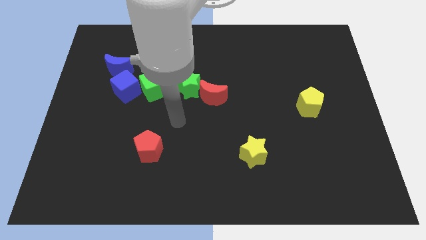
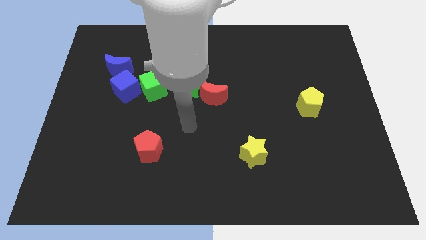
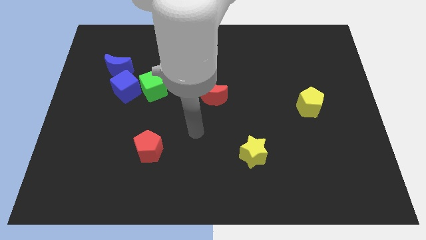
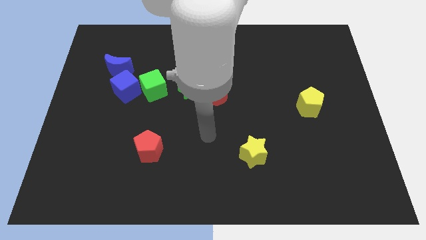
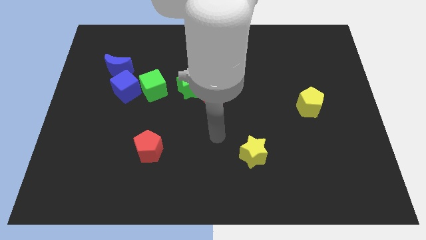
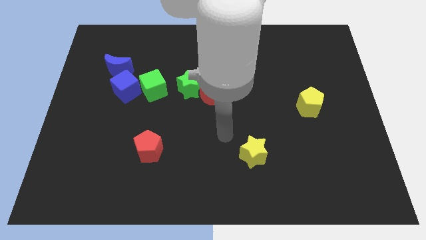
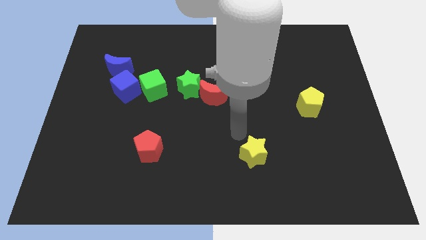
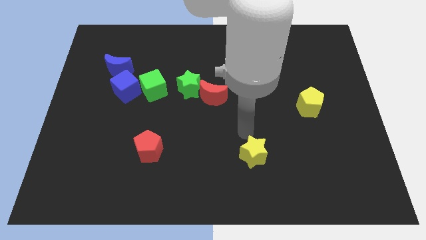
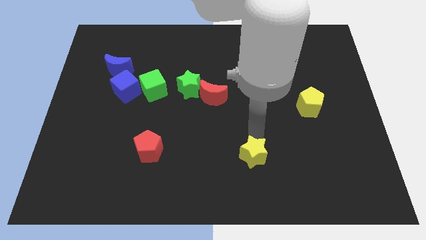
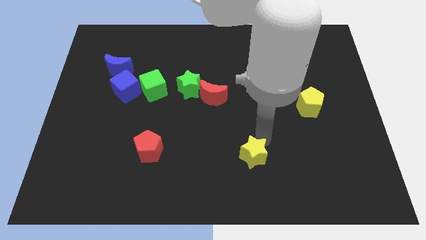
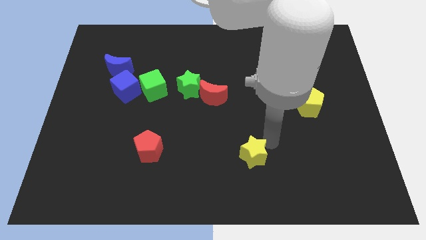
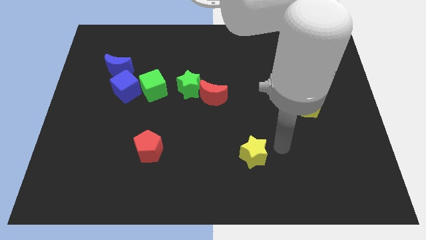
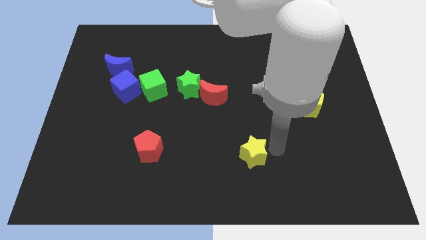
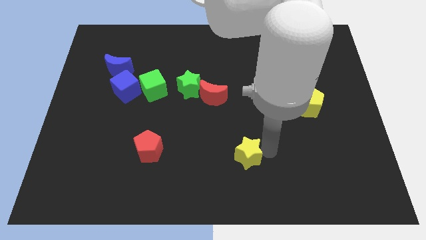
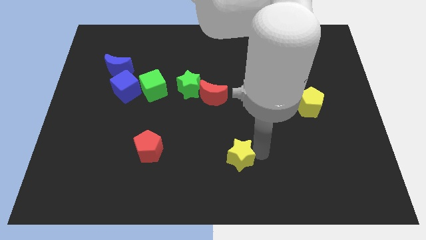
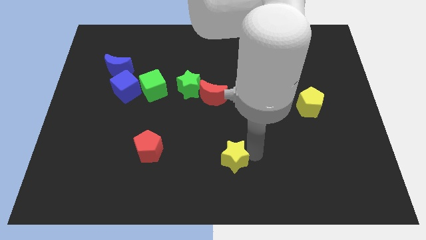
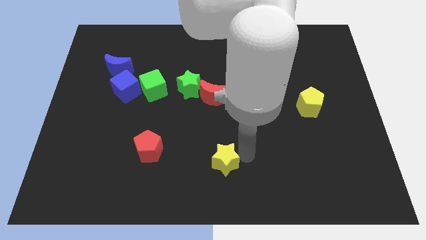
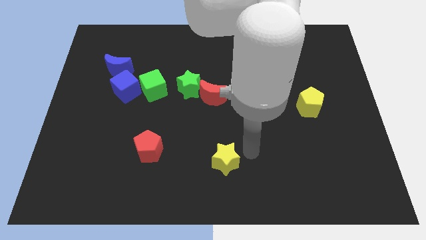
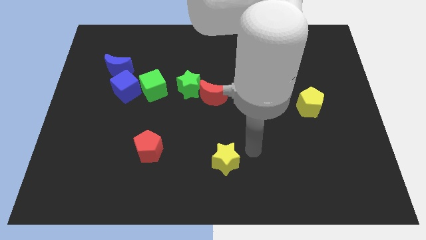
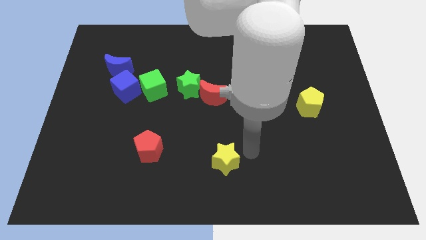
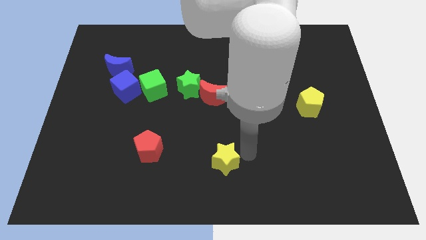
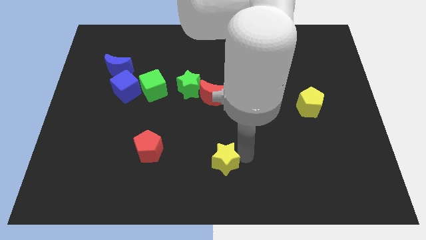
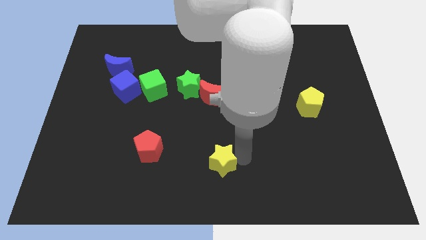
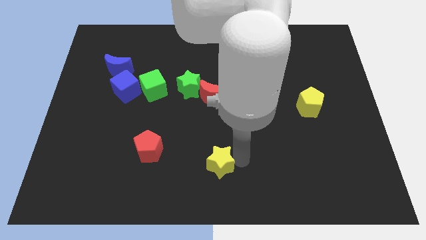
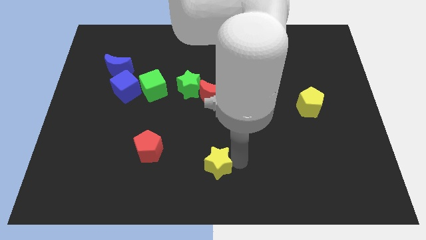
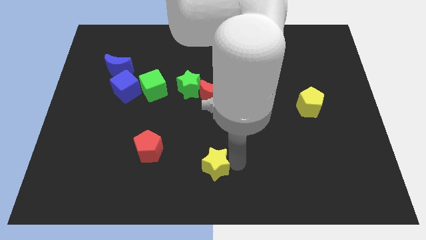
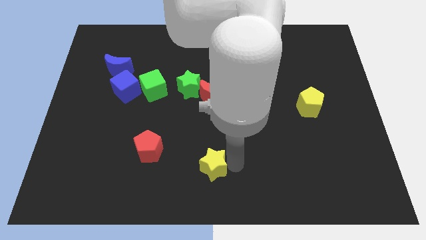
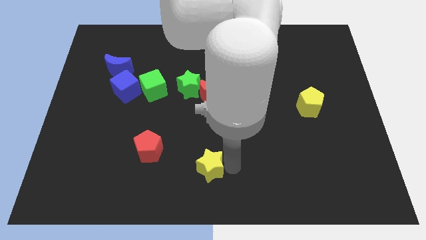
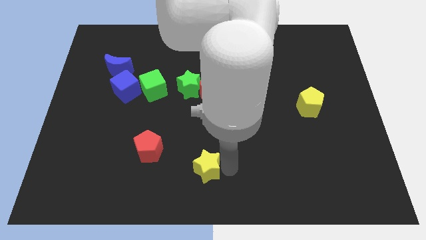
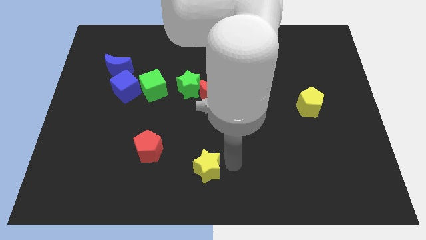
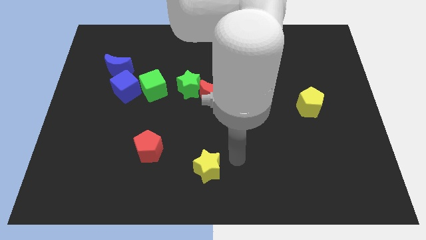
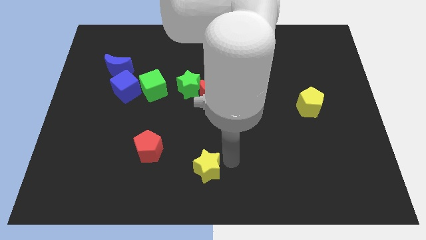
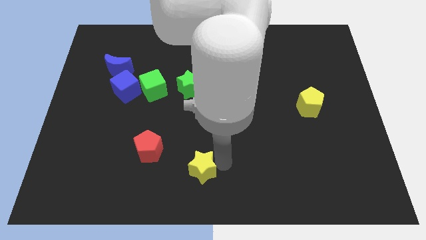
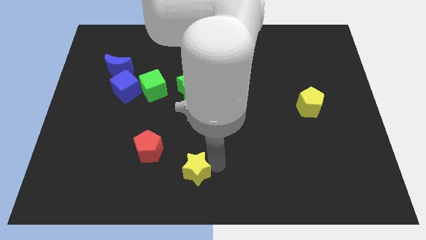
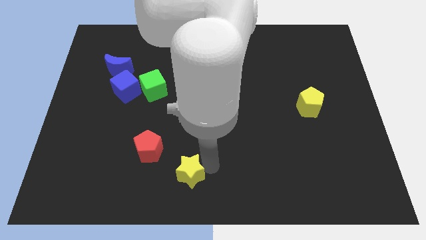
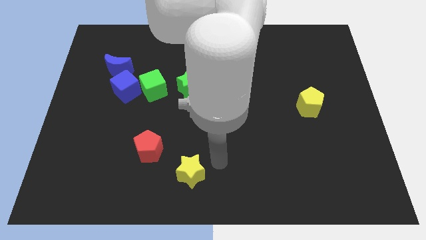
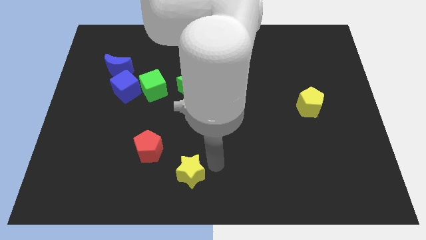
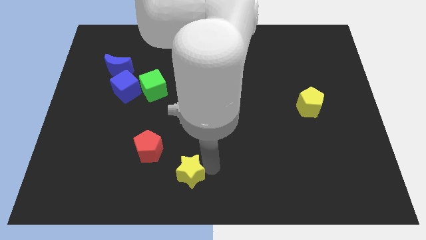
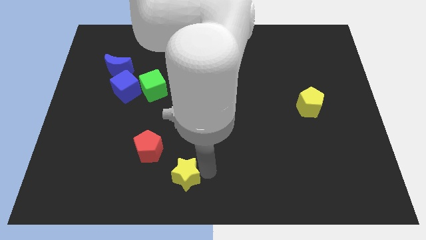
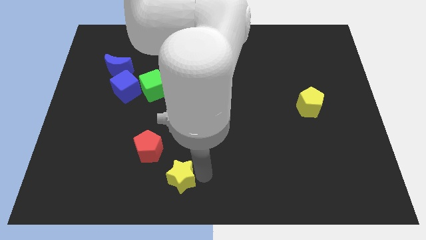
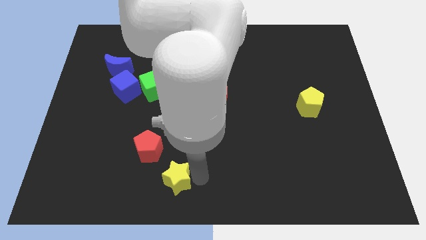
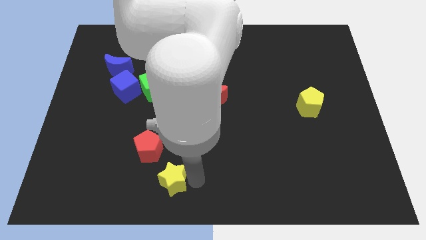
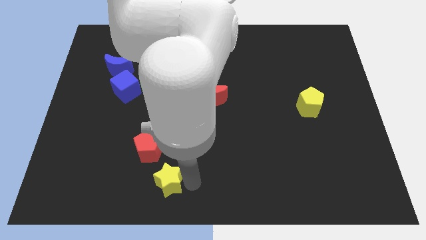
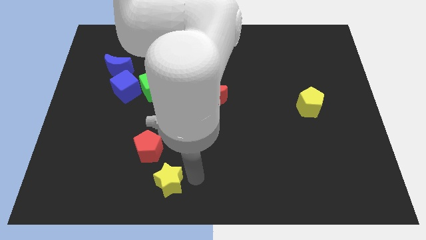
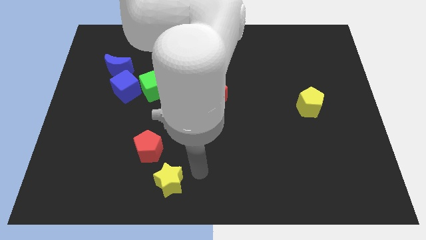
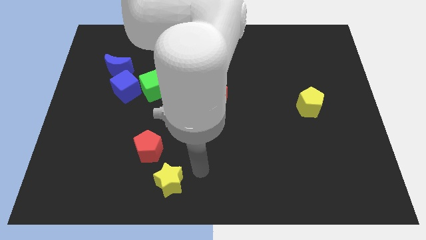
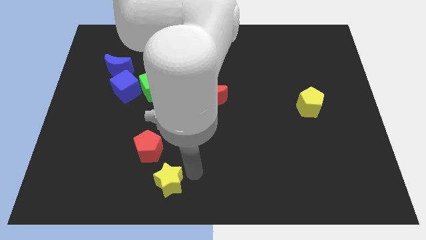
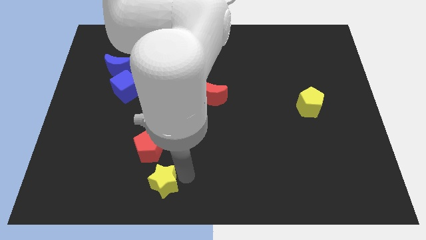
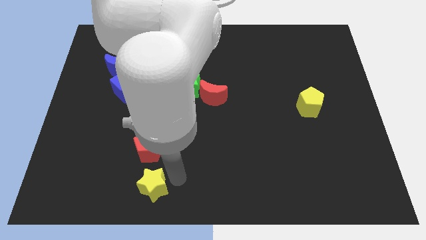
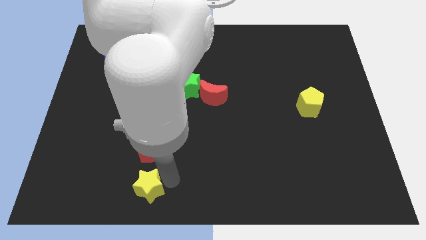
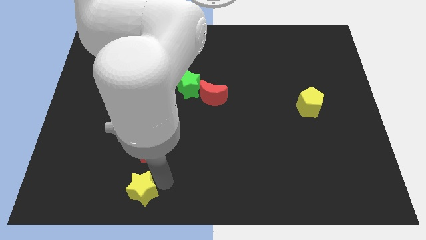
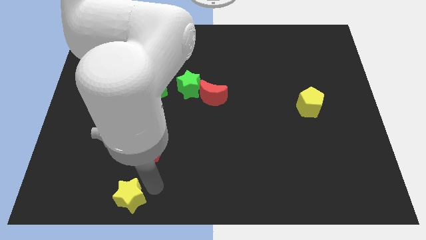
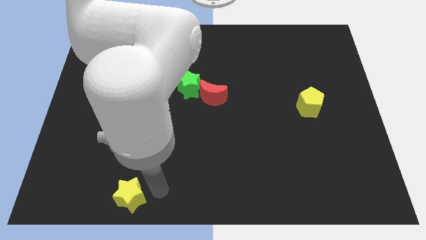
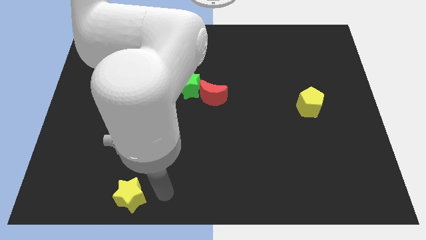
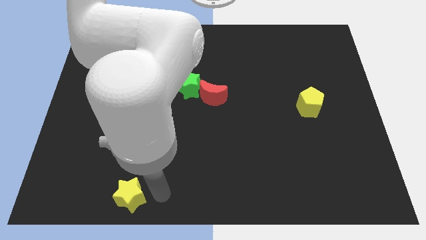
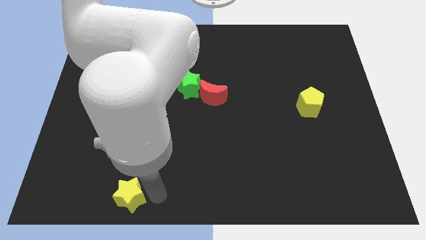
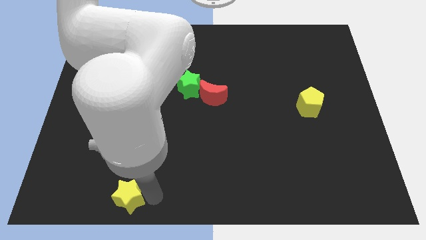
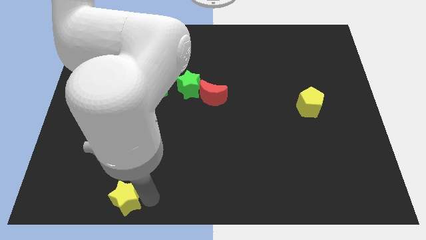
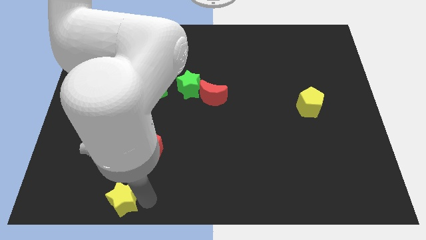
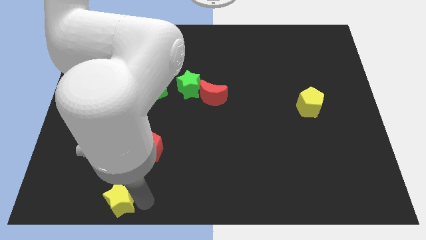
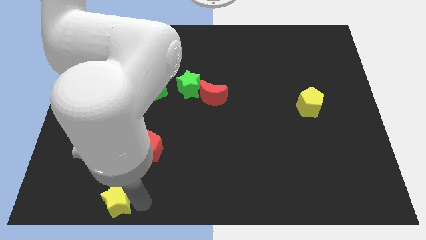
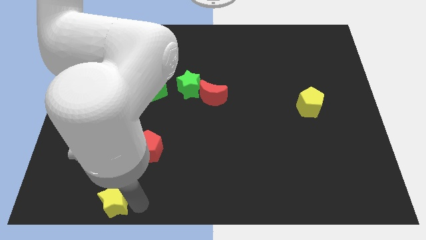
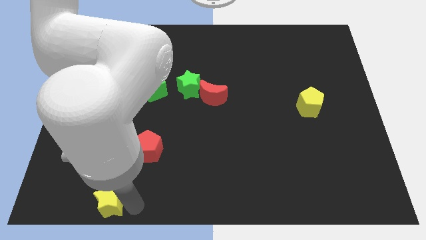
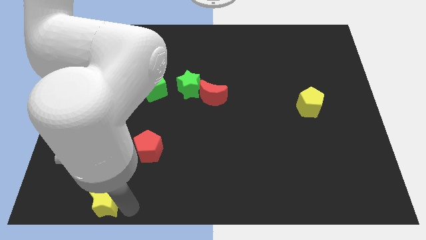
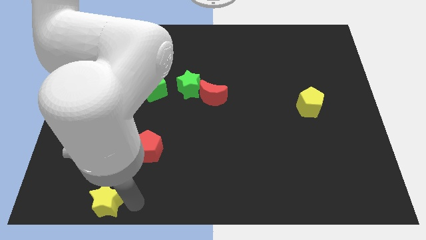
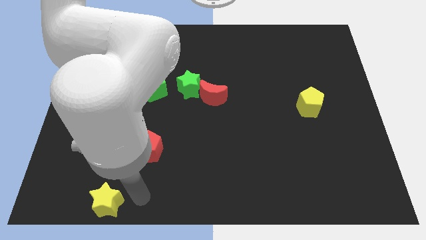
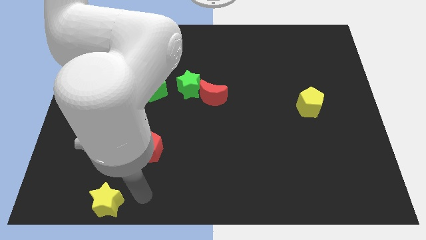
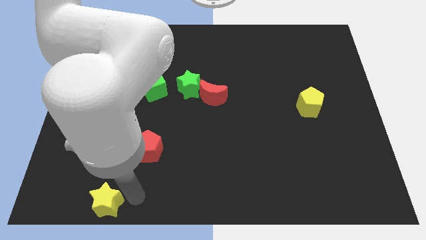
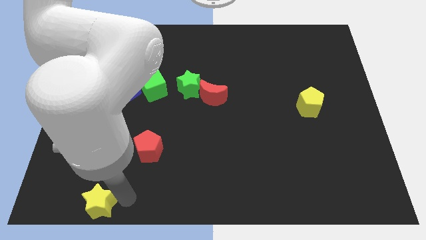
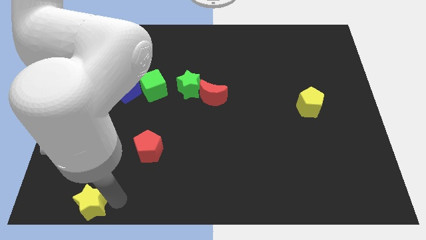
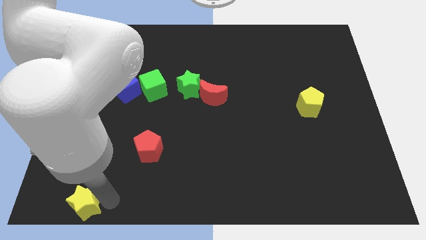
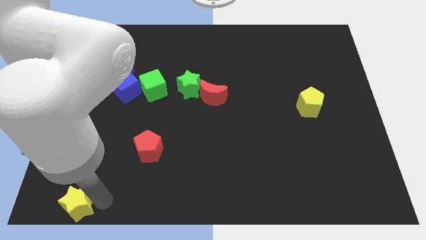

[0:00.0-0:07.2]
put the yellow star to the bottom left corner

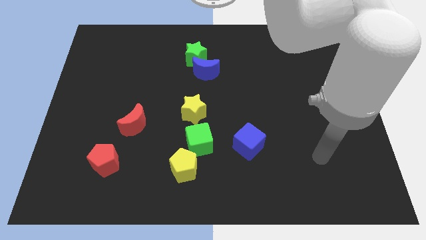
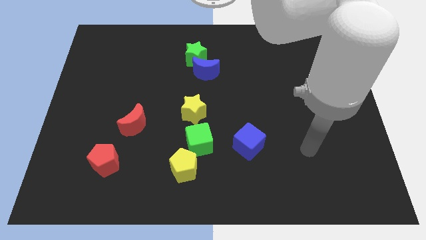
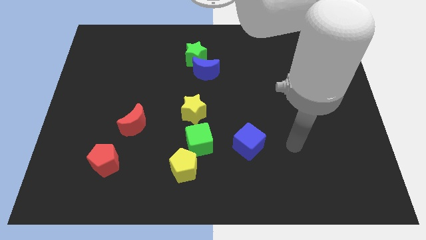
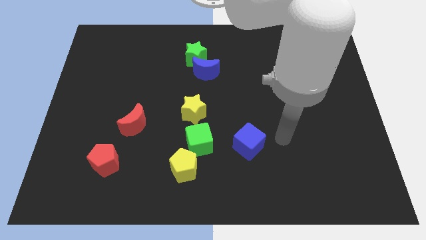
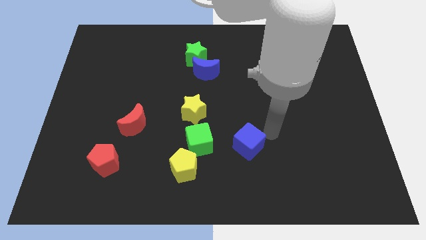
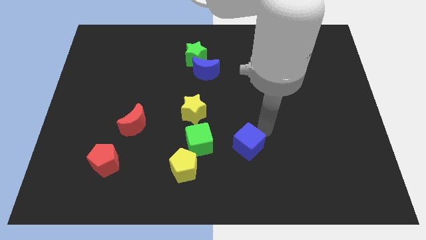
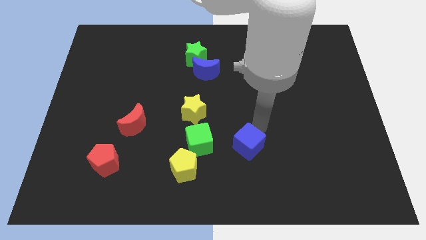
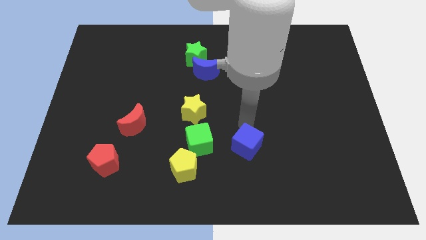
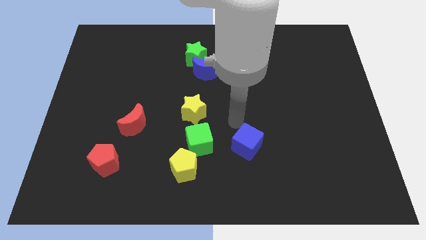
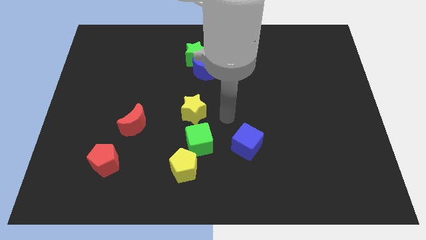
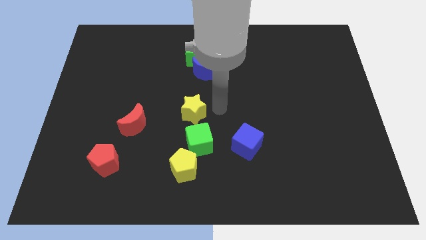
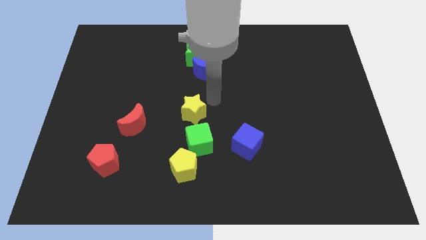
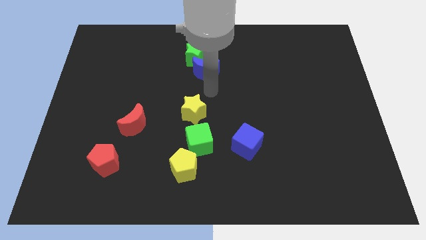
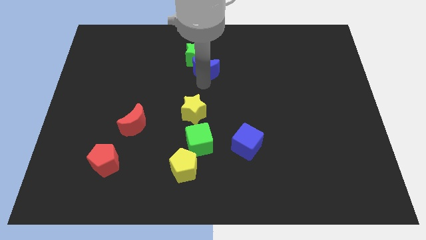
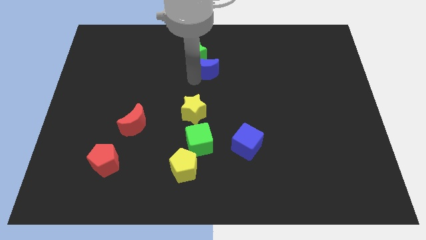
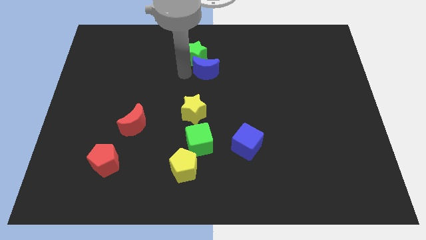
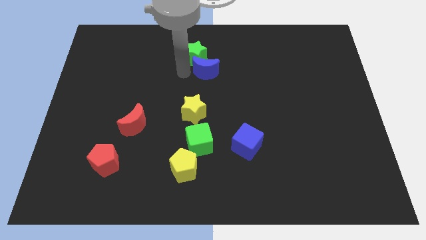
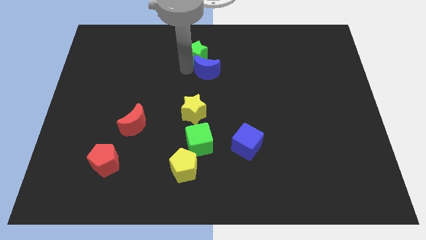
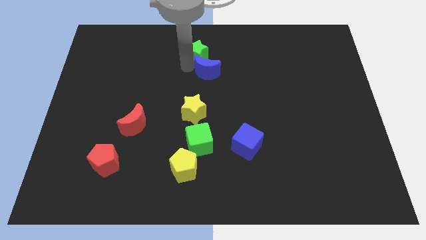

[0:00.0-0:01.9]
push the green star to the towards your base
